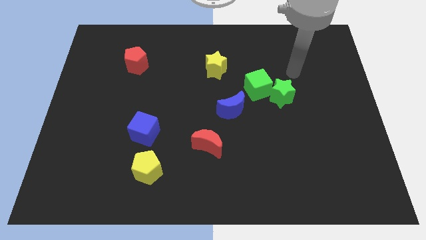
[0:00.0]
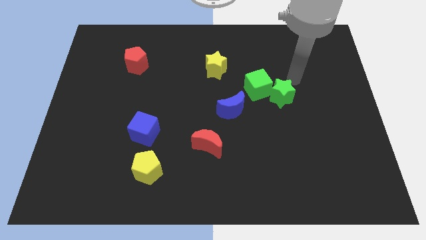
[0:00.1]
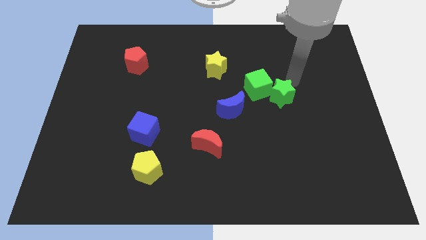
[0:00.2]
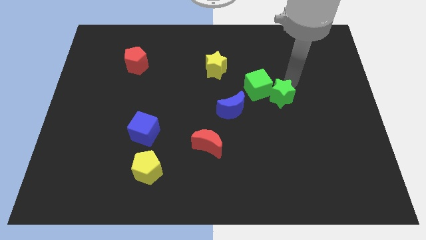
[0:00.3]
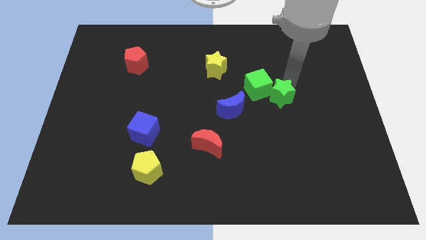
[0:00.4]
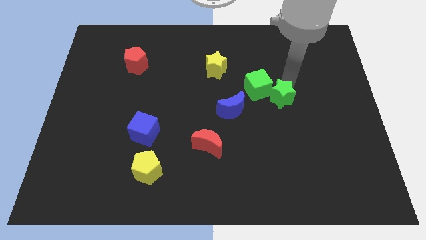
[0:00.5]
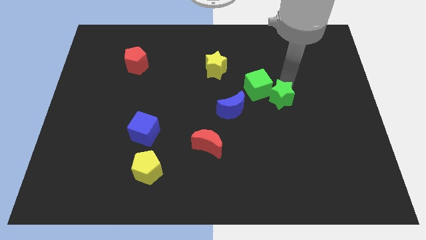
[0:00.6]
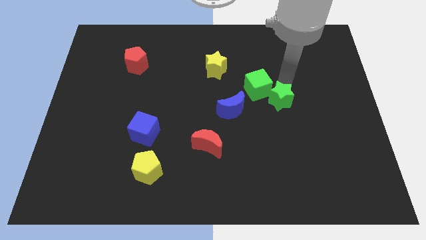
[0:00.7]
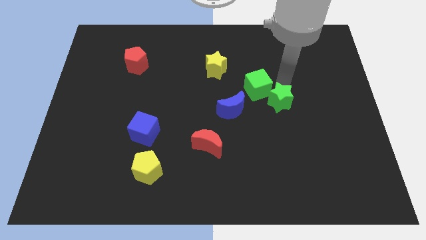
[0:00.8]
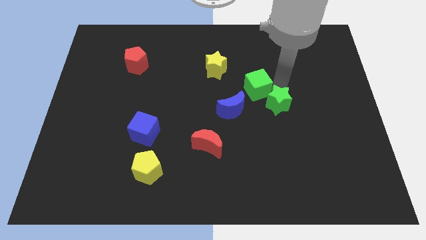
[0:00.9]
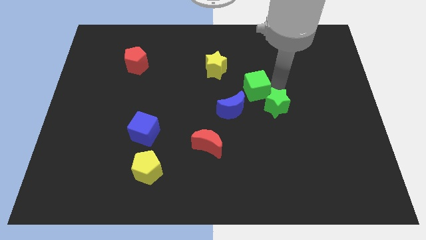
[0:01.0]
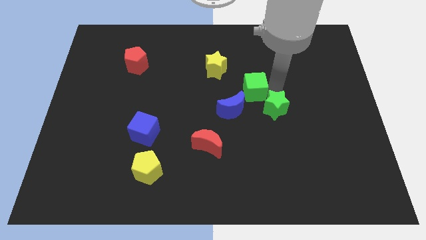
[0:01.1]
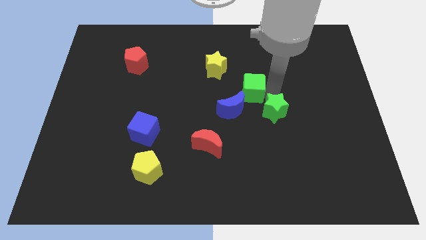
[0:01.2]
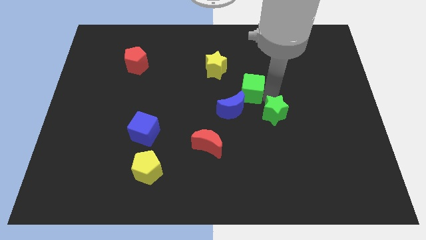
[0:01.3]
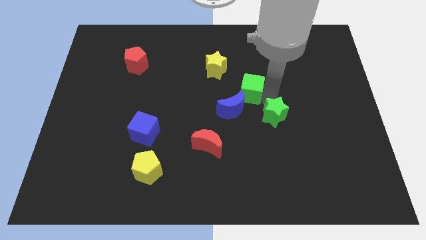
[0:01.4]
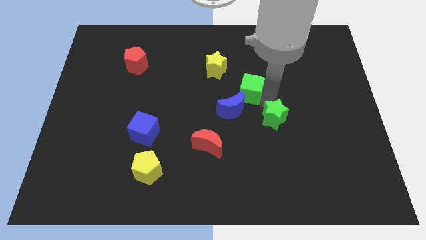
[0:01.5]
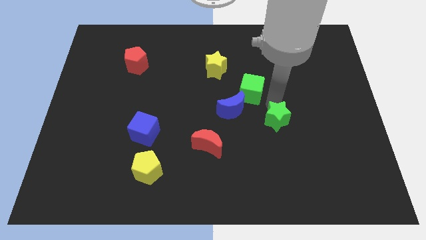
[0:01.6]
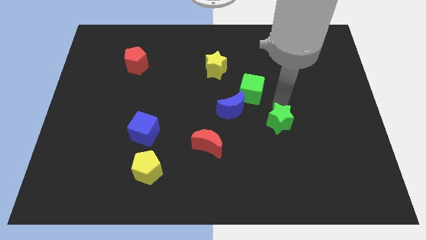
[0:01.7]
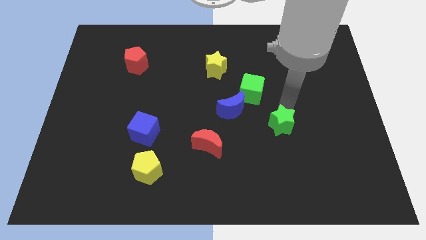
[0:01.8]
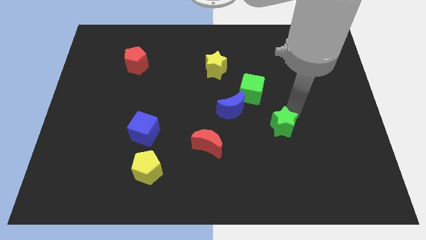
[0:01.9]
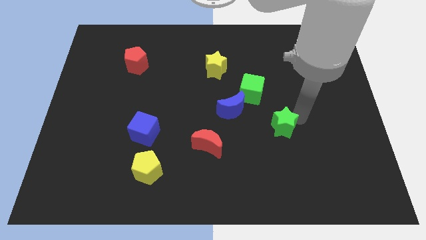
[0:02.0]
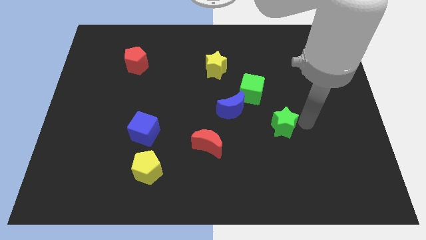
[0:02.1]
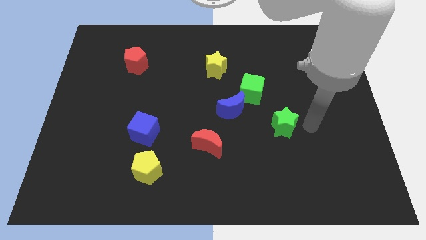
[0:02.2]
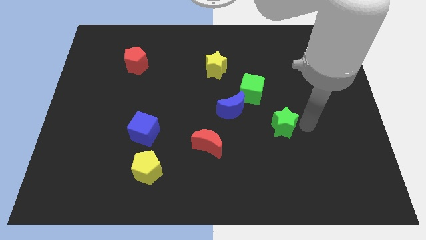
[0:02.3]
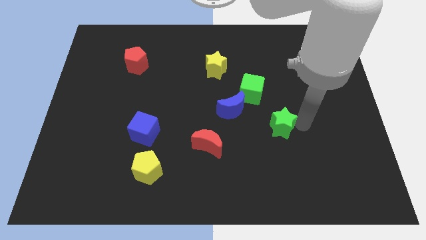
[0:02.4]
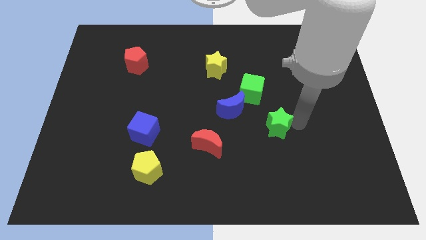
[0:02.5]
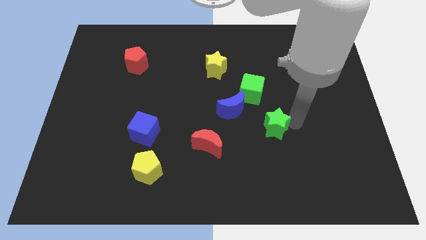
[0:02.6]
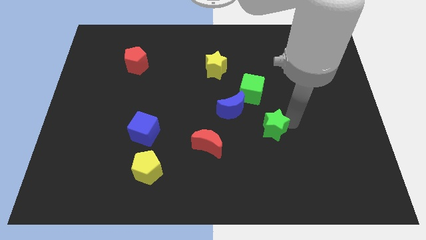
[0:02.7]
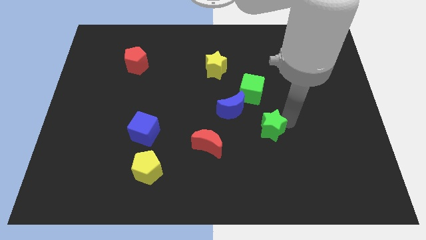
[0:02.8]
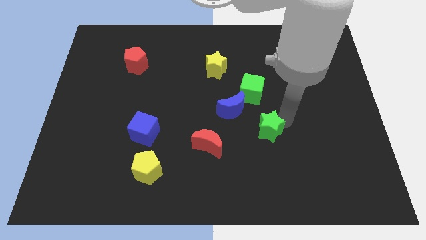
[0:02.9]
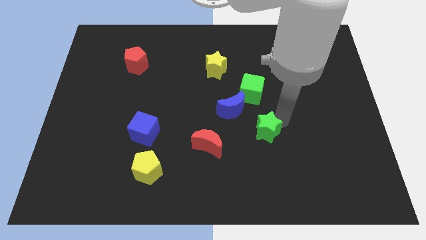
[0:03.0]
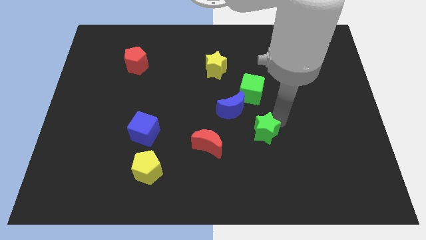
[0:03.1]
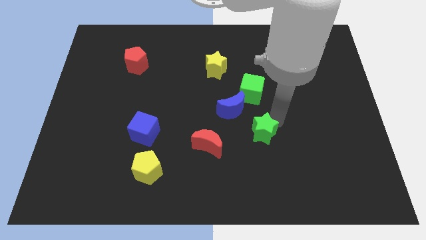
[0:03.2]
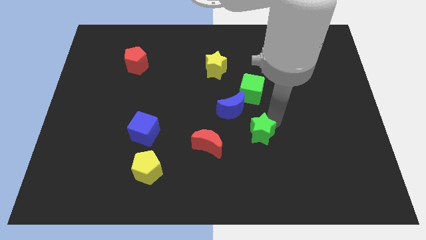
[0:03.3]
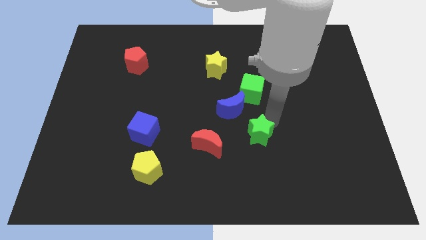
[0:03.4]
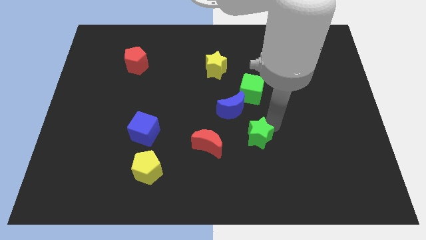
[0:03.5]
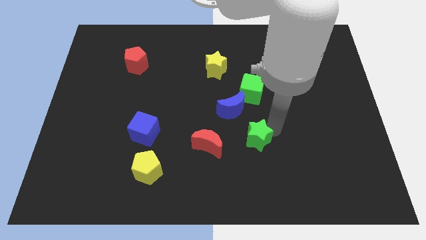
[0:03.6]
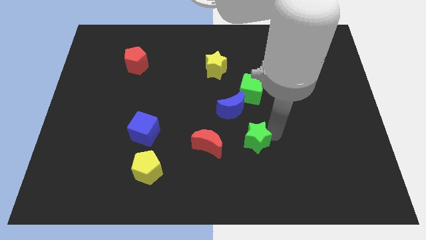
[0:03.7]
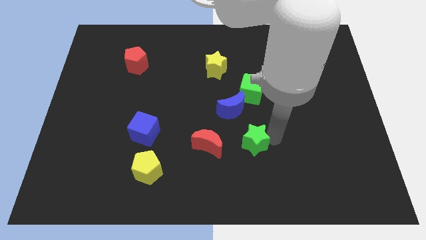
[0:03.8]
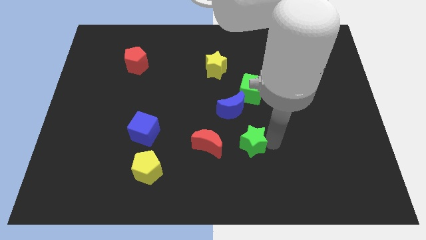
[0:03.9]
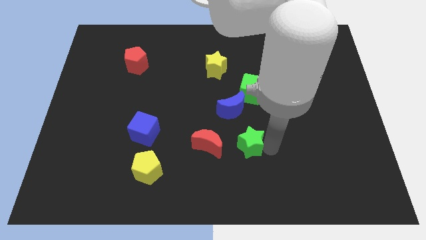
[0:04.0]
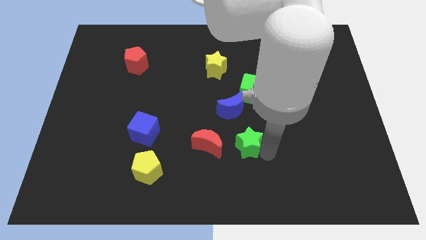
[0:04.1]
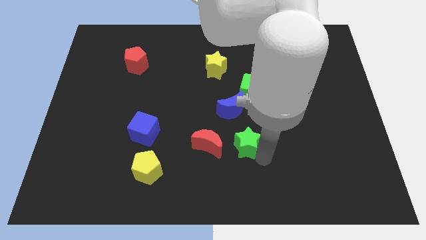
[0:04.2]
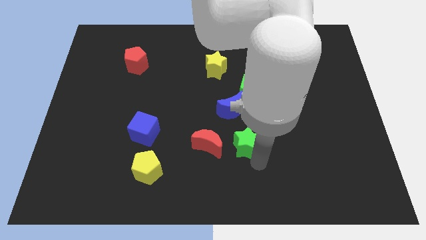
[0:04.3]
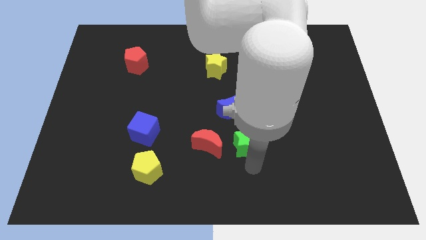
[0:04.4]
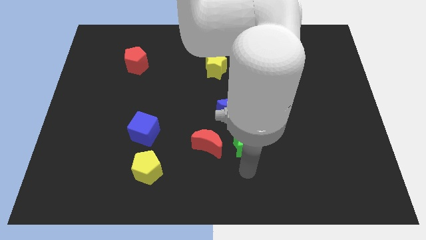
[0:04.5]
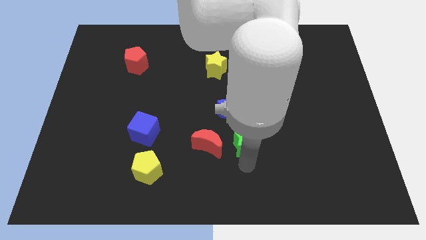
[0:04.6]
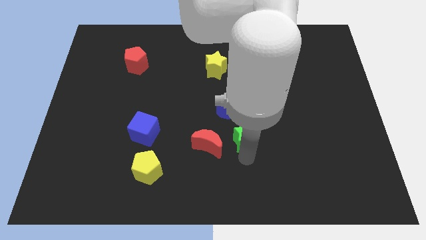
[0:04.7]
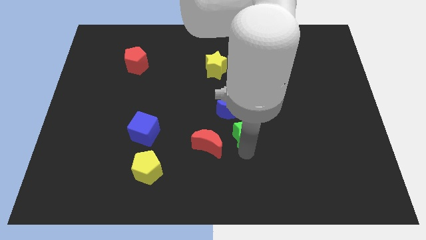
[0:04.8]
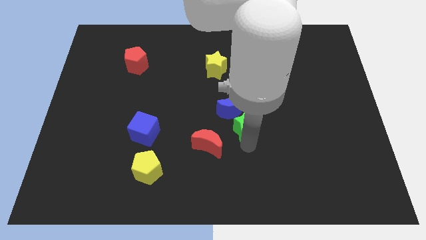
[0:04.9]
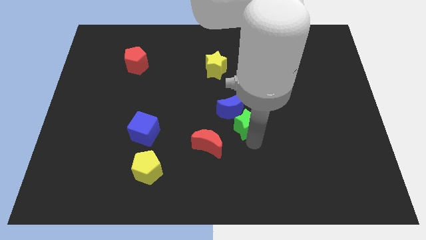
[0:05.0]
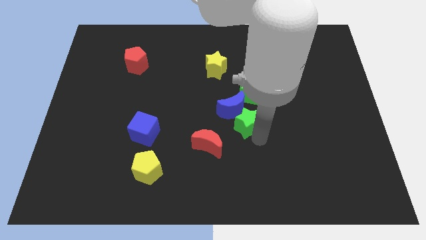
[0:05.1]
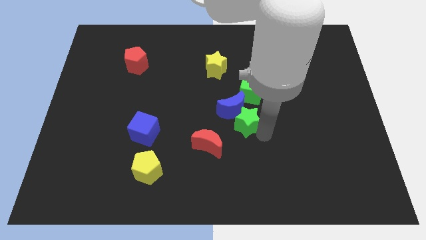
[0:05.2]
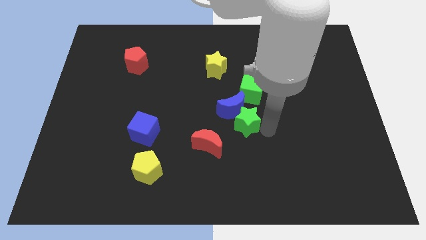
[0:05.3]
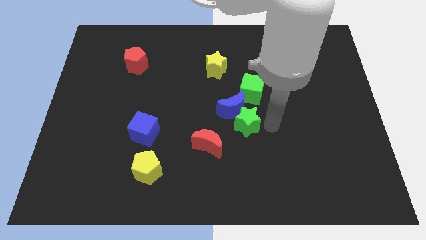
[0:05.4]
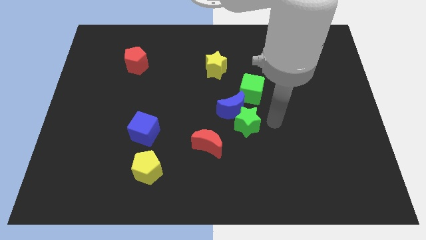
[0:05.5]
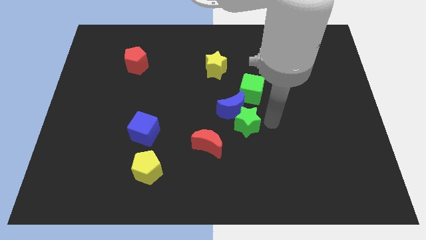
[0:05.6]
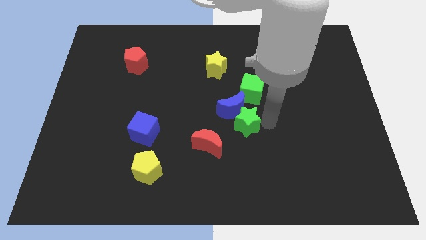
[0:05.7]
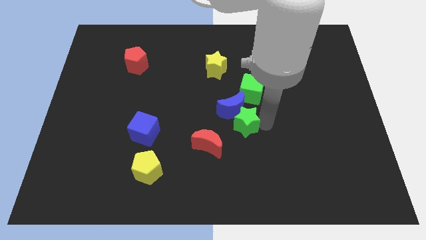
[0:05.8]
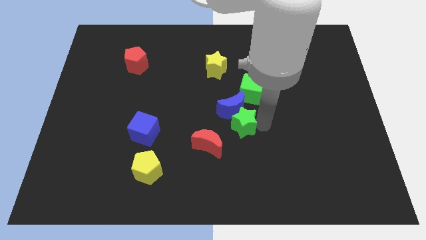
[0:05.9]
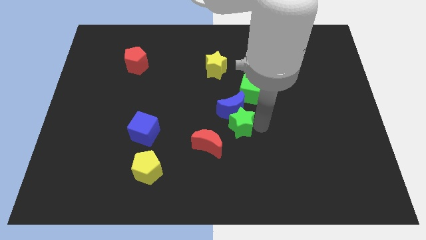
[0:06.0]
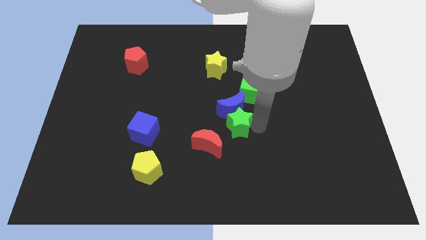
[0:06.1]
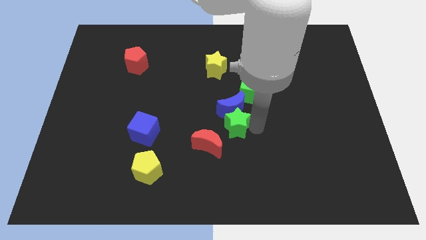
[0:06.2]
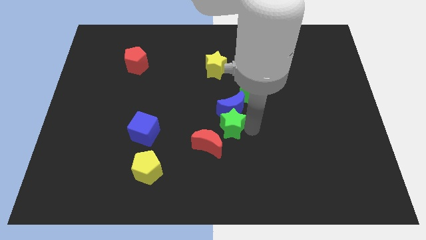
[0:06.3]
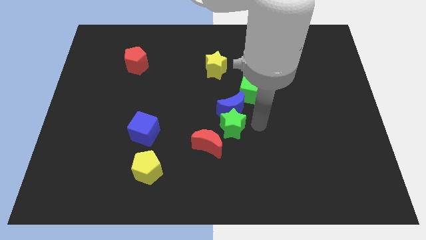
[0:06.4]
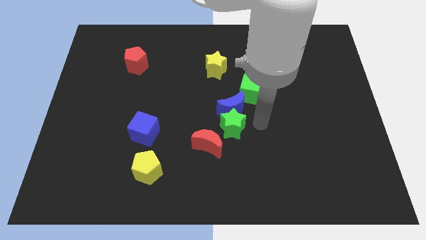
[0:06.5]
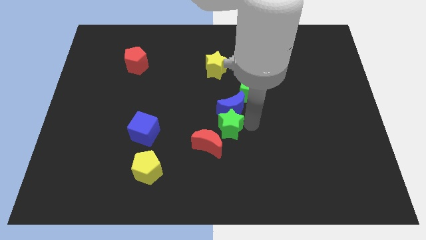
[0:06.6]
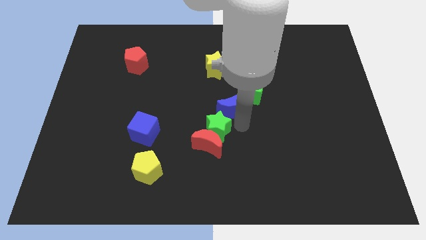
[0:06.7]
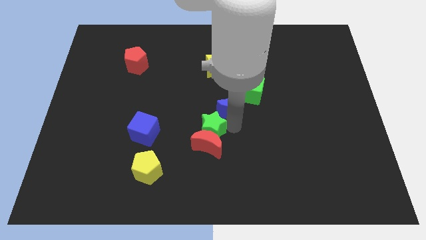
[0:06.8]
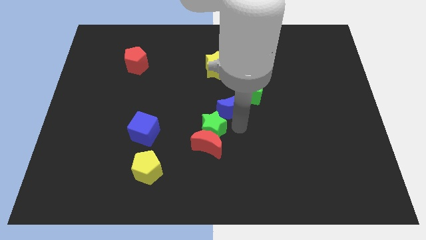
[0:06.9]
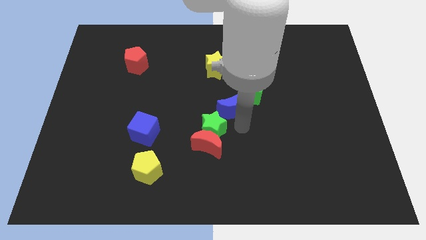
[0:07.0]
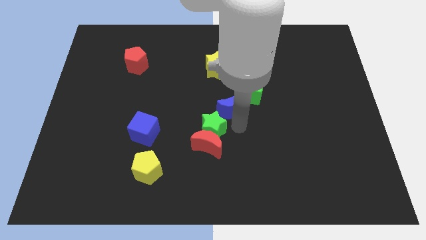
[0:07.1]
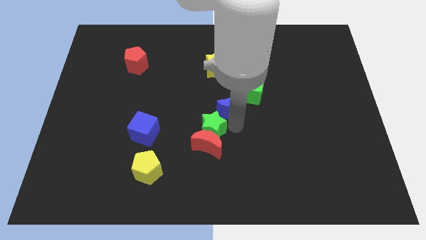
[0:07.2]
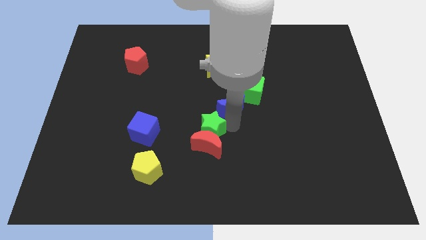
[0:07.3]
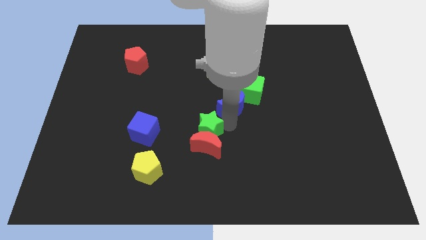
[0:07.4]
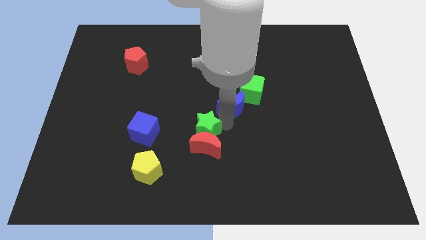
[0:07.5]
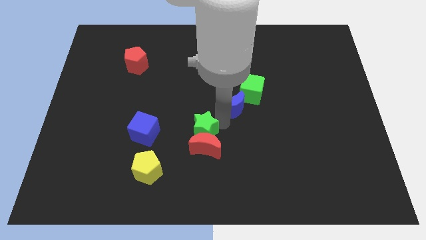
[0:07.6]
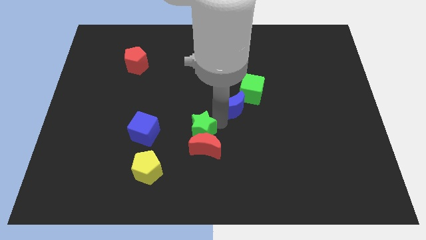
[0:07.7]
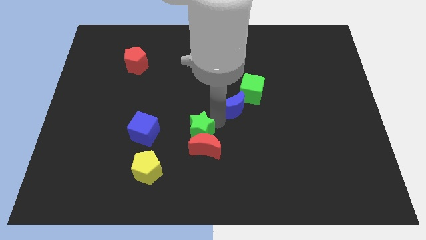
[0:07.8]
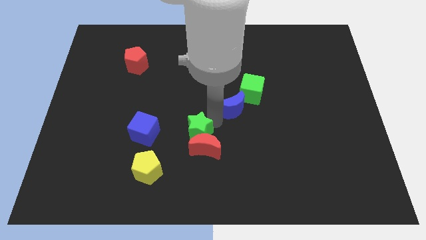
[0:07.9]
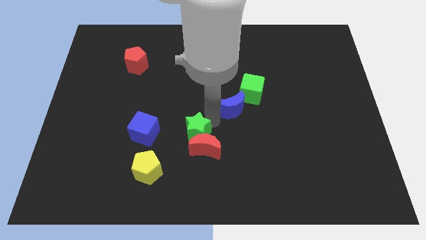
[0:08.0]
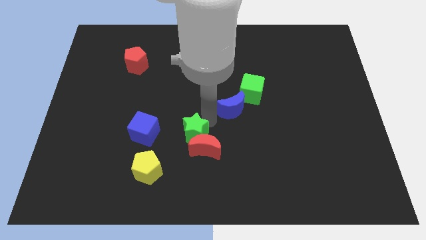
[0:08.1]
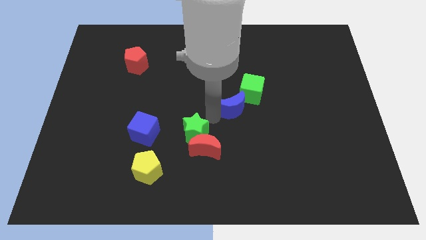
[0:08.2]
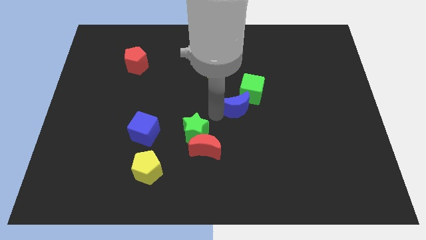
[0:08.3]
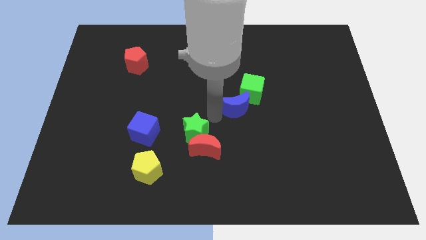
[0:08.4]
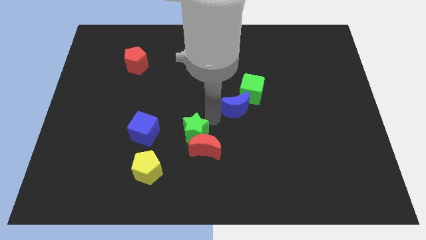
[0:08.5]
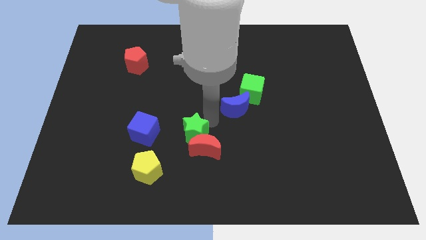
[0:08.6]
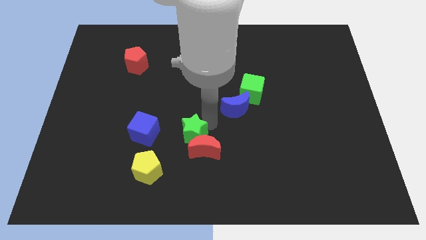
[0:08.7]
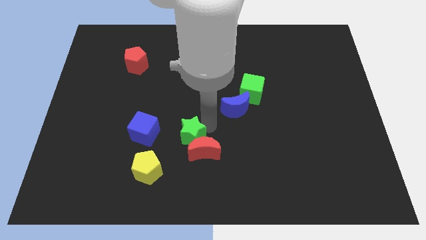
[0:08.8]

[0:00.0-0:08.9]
put the green star to the top right of the yellow pentagon
